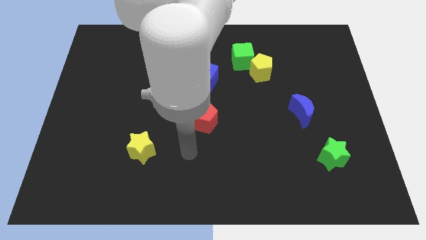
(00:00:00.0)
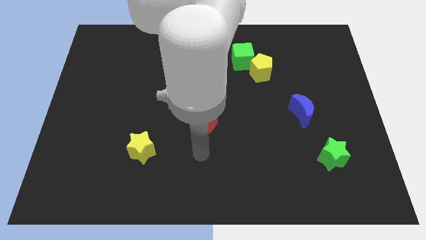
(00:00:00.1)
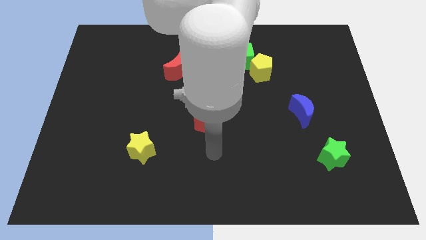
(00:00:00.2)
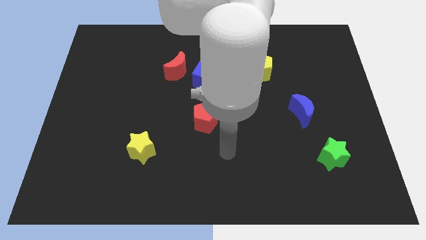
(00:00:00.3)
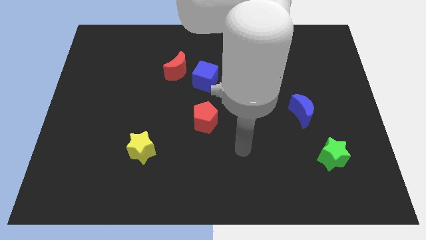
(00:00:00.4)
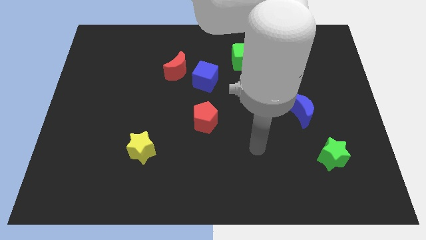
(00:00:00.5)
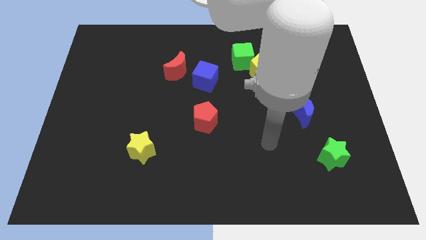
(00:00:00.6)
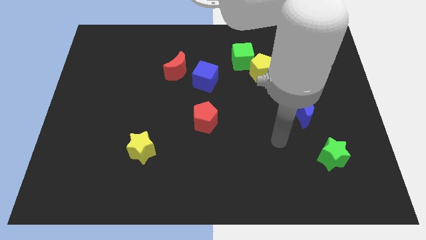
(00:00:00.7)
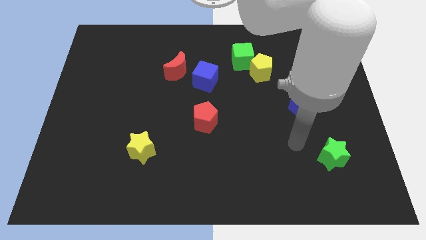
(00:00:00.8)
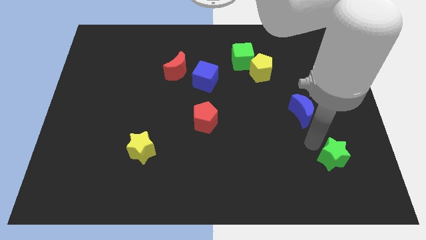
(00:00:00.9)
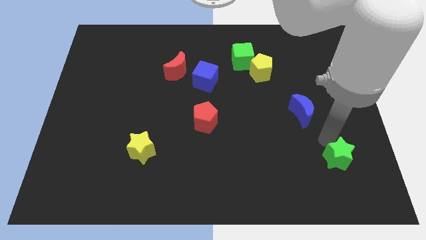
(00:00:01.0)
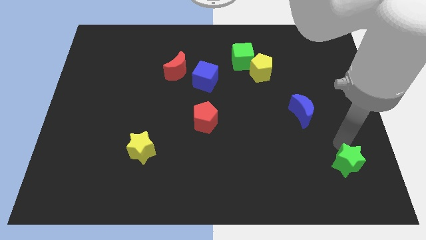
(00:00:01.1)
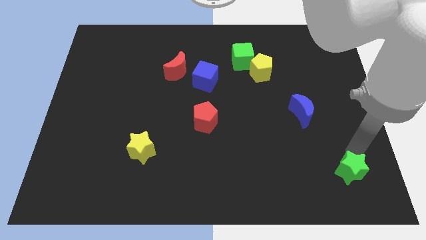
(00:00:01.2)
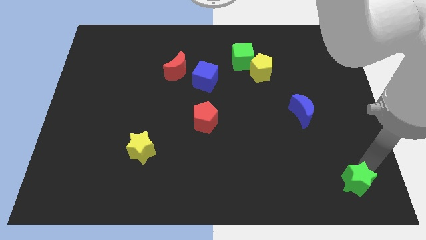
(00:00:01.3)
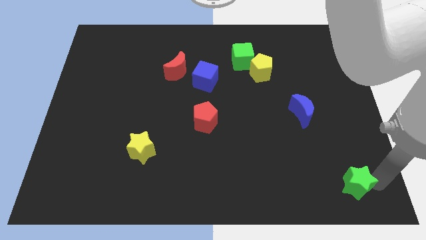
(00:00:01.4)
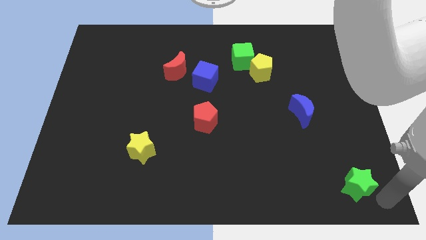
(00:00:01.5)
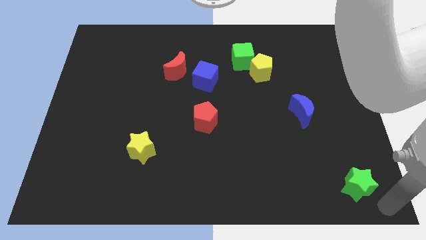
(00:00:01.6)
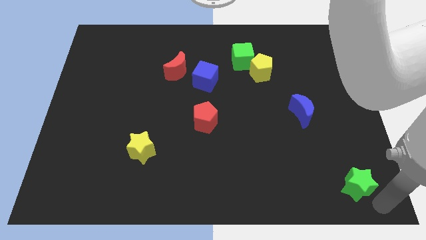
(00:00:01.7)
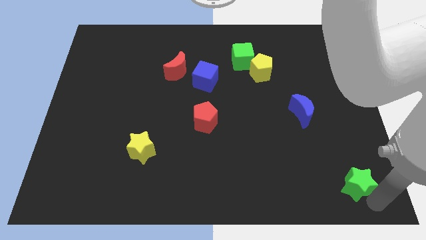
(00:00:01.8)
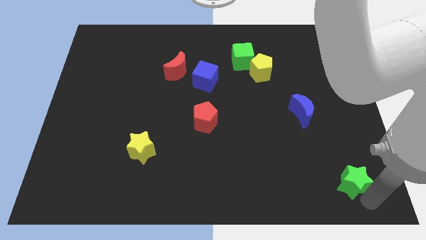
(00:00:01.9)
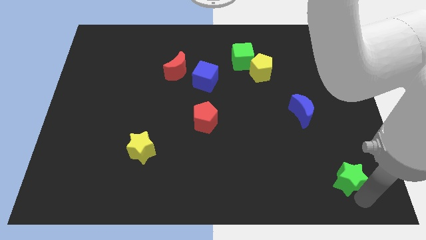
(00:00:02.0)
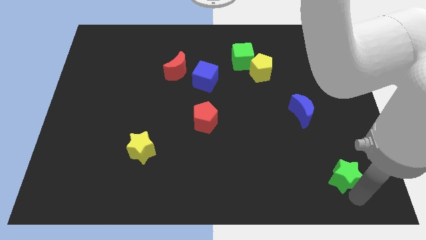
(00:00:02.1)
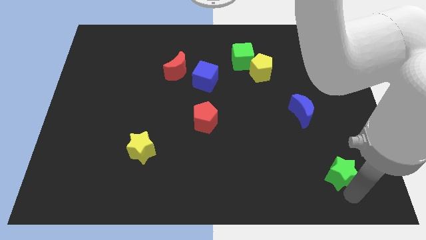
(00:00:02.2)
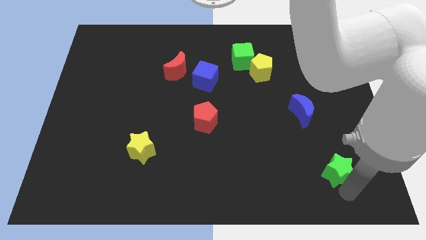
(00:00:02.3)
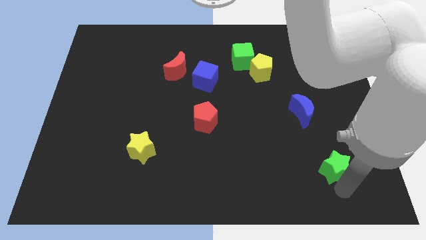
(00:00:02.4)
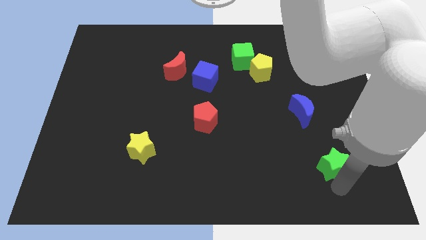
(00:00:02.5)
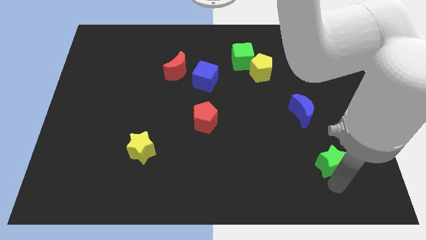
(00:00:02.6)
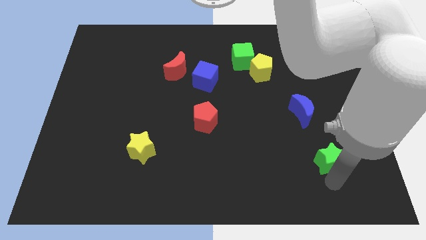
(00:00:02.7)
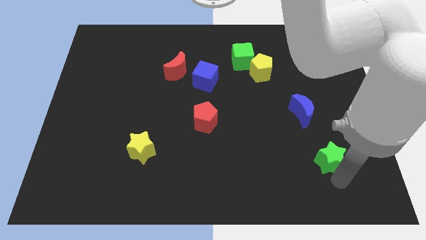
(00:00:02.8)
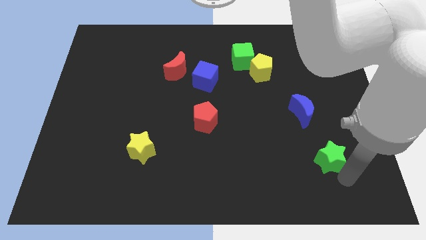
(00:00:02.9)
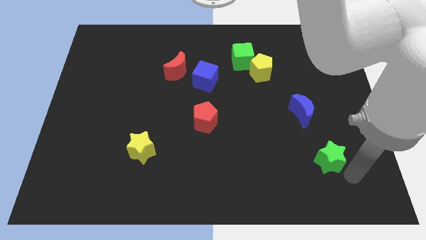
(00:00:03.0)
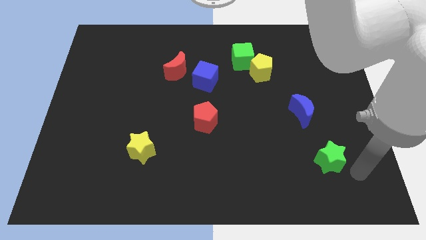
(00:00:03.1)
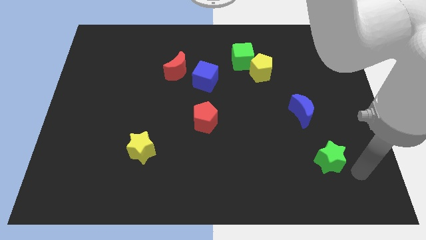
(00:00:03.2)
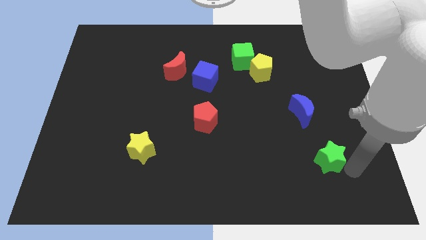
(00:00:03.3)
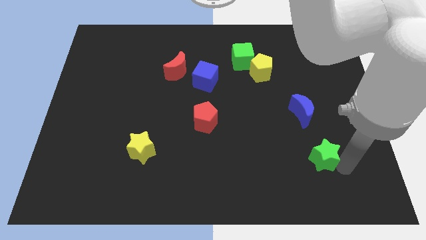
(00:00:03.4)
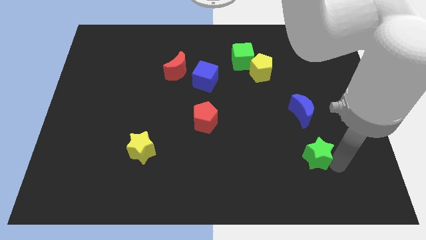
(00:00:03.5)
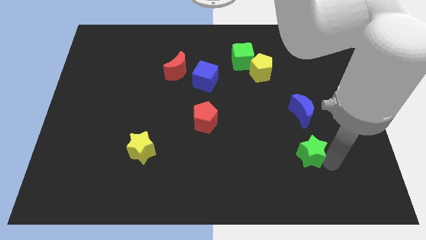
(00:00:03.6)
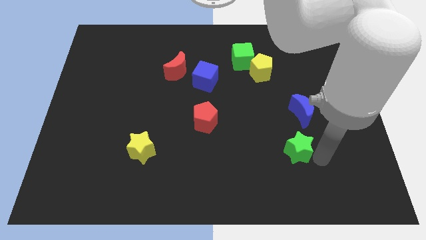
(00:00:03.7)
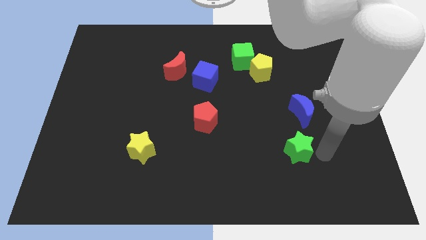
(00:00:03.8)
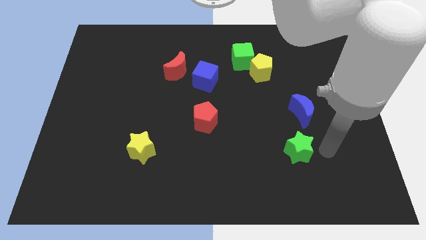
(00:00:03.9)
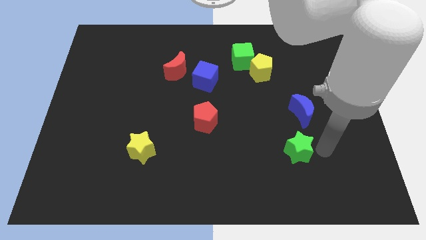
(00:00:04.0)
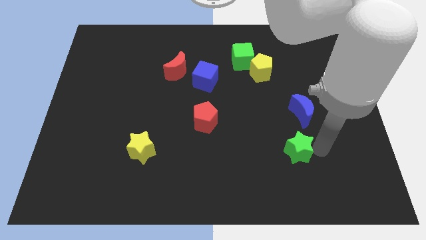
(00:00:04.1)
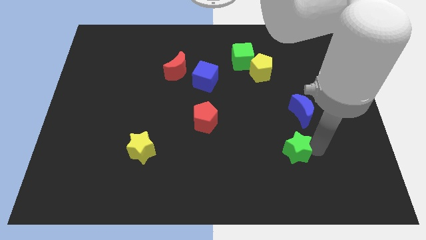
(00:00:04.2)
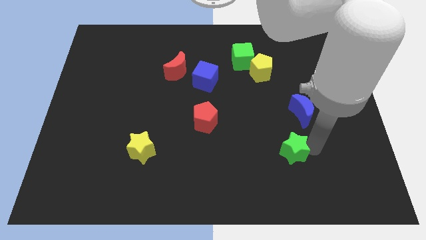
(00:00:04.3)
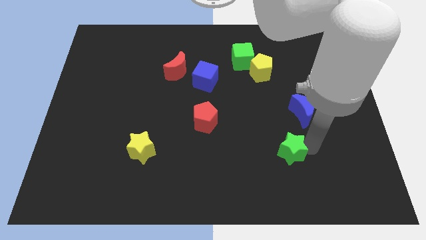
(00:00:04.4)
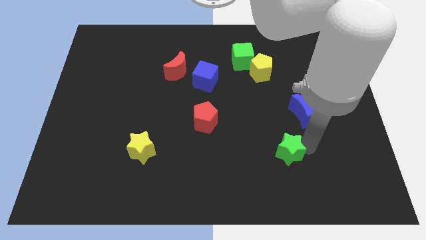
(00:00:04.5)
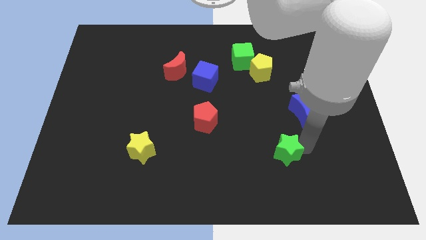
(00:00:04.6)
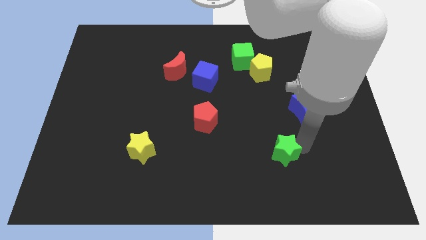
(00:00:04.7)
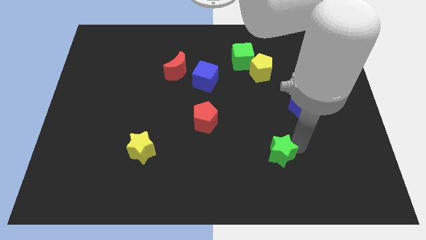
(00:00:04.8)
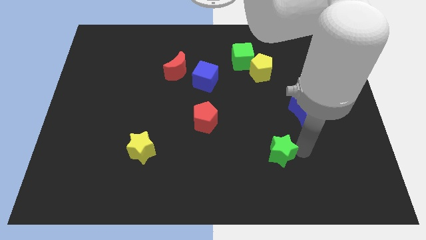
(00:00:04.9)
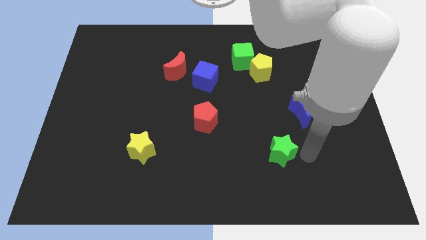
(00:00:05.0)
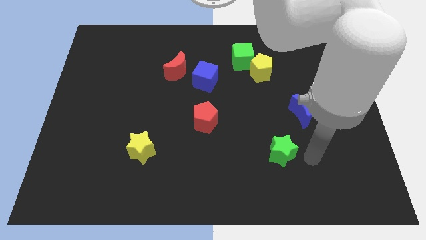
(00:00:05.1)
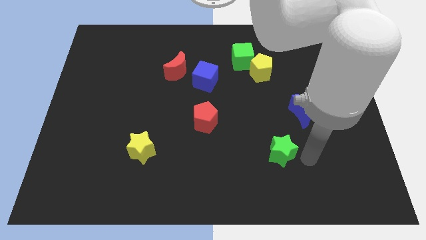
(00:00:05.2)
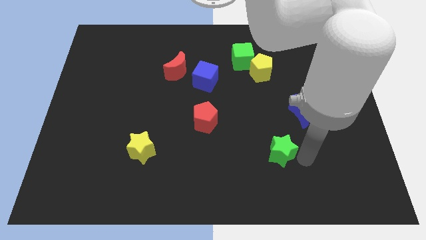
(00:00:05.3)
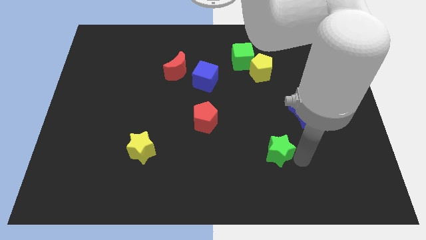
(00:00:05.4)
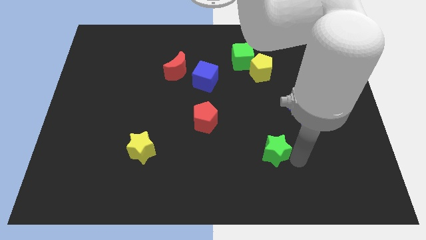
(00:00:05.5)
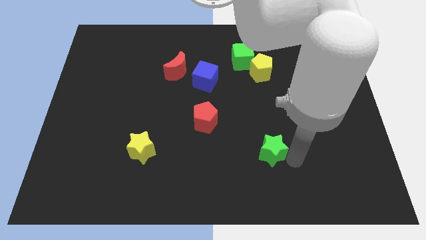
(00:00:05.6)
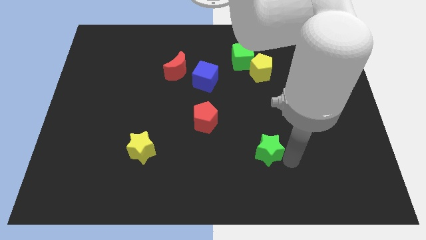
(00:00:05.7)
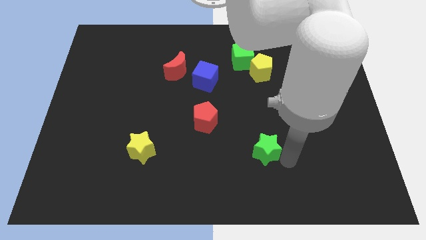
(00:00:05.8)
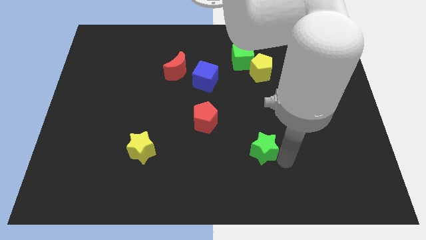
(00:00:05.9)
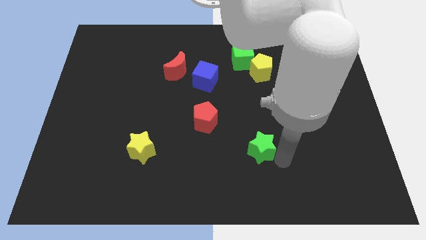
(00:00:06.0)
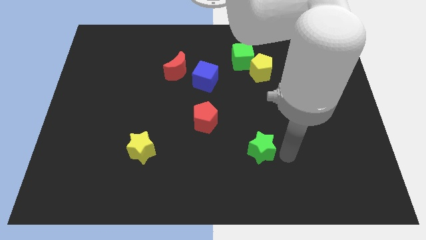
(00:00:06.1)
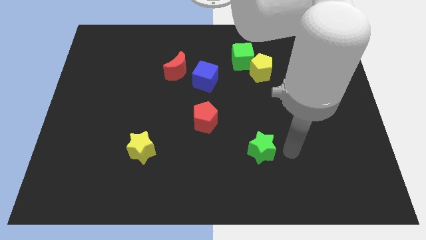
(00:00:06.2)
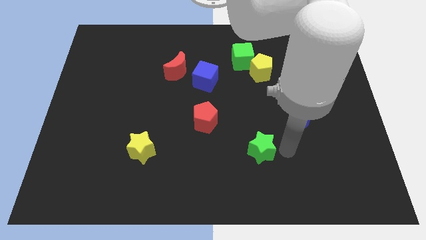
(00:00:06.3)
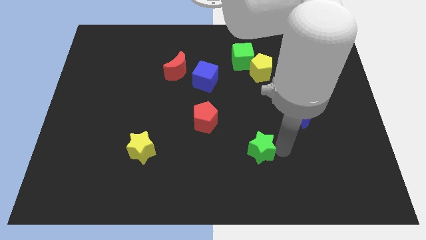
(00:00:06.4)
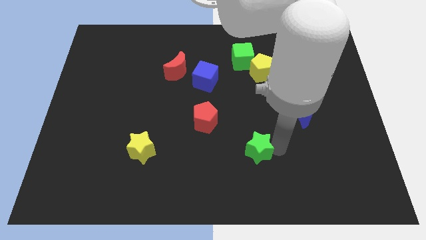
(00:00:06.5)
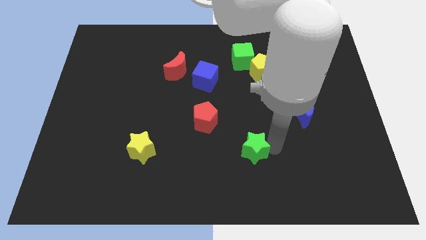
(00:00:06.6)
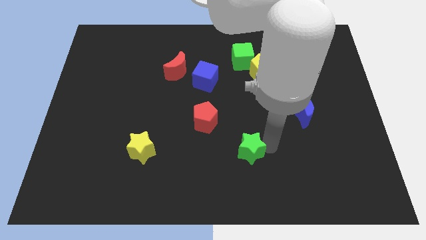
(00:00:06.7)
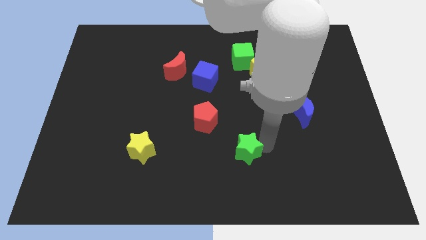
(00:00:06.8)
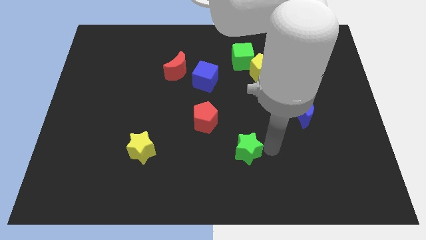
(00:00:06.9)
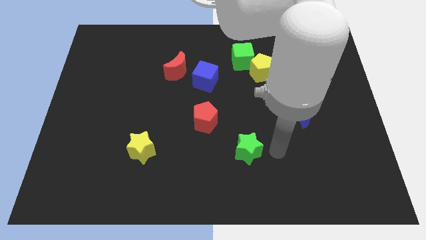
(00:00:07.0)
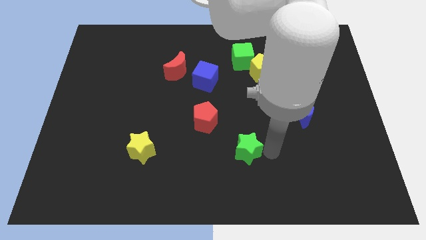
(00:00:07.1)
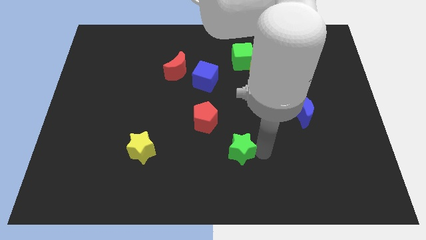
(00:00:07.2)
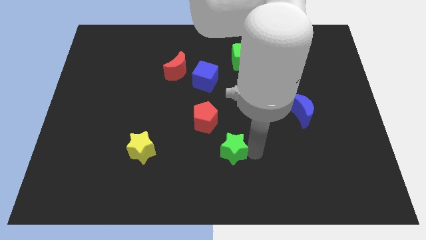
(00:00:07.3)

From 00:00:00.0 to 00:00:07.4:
push the green star left

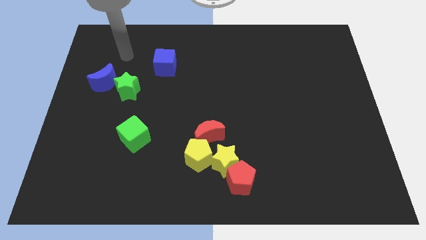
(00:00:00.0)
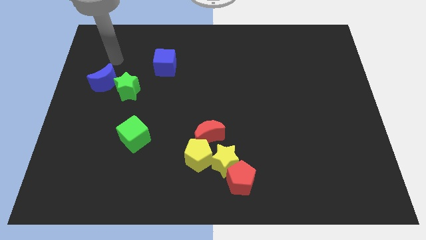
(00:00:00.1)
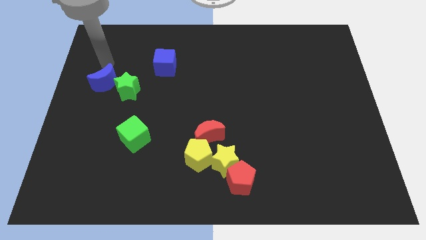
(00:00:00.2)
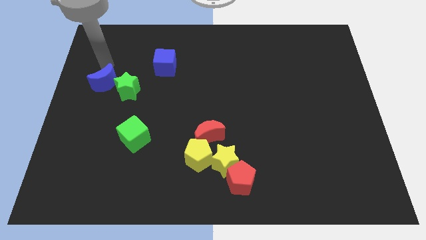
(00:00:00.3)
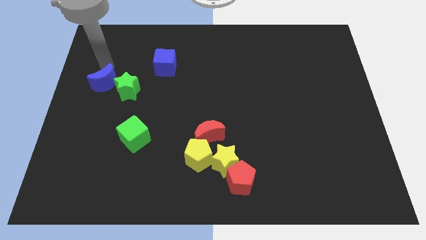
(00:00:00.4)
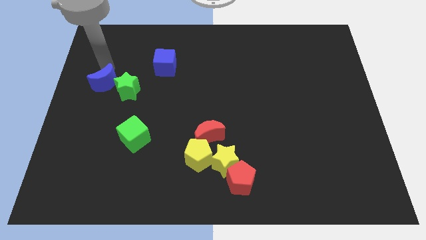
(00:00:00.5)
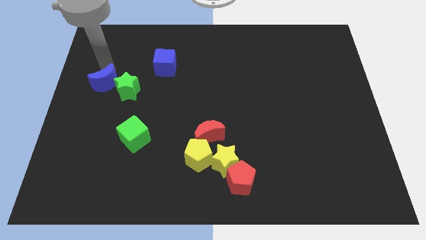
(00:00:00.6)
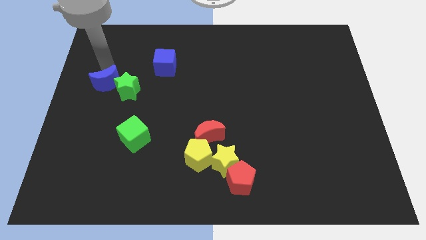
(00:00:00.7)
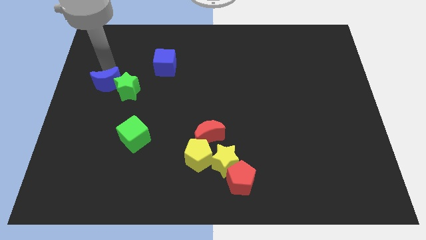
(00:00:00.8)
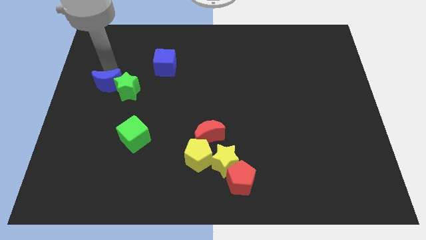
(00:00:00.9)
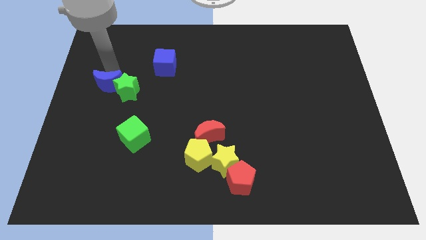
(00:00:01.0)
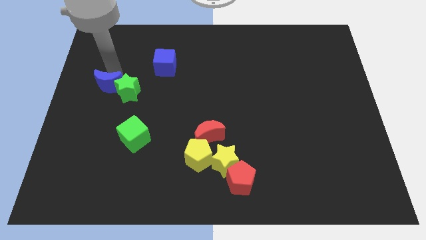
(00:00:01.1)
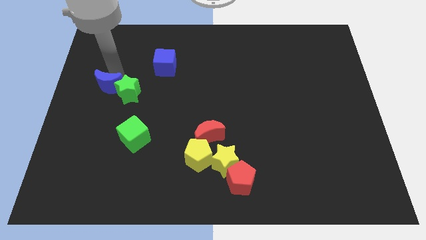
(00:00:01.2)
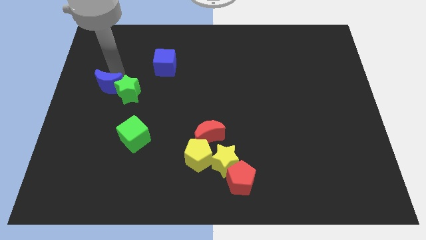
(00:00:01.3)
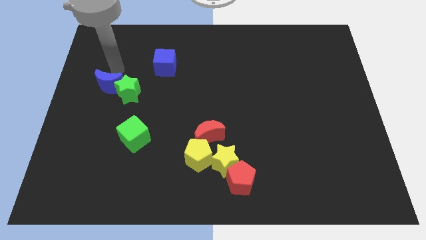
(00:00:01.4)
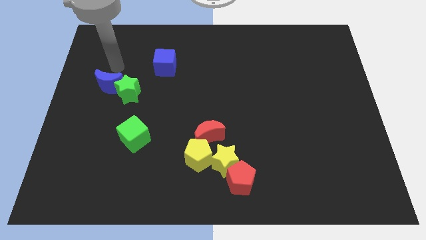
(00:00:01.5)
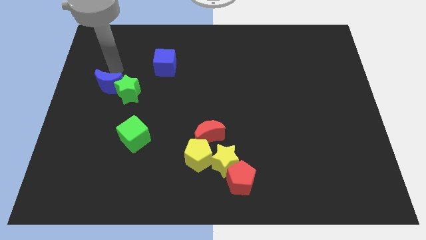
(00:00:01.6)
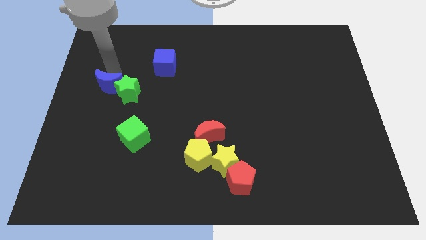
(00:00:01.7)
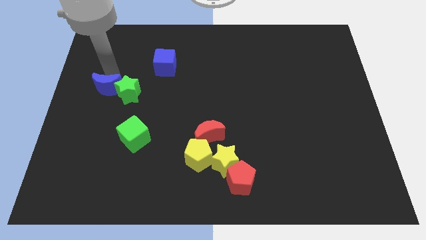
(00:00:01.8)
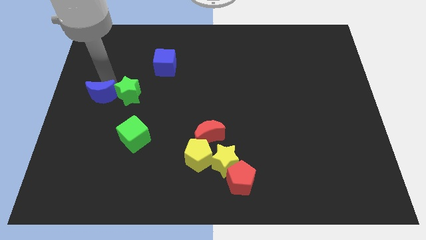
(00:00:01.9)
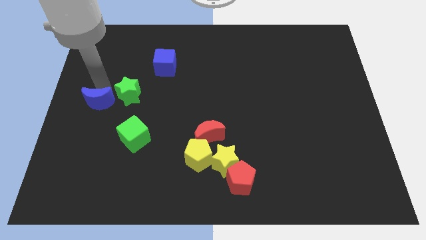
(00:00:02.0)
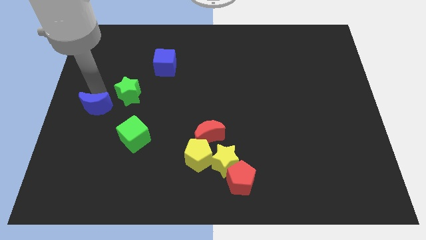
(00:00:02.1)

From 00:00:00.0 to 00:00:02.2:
move the blue moon a little downwards
